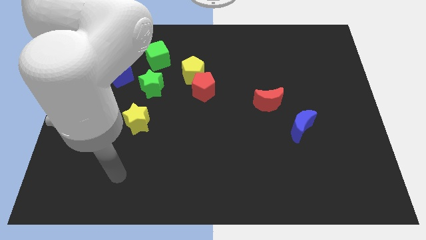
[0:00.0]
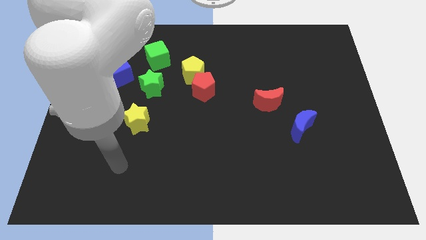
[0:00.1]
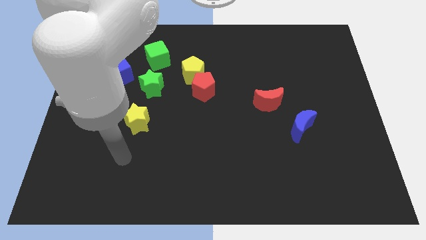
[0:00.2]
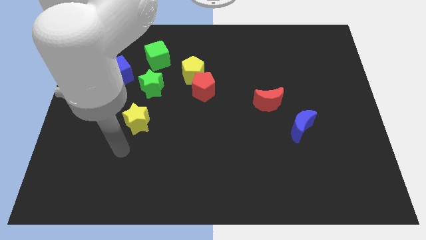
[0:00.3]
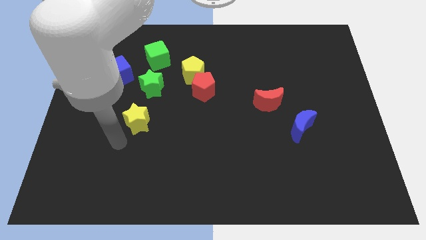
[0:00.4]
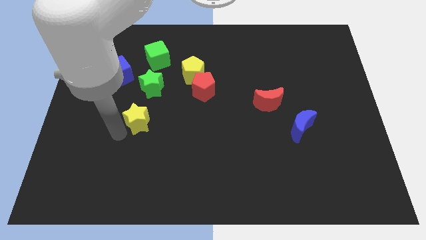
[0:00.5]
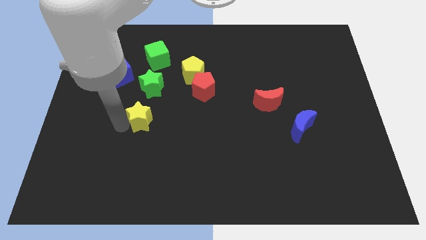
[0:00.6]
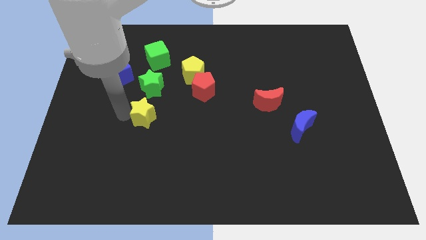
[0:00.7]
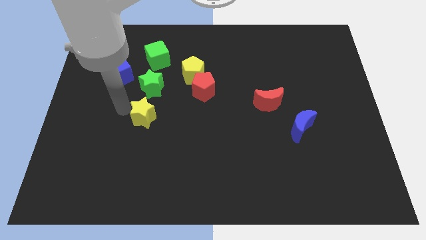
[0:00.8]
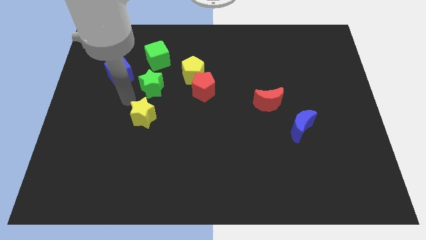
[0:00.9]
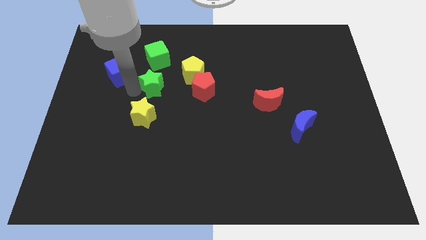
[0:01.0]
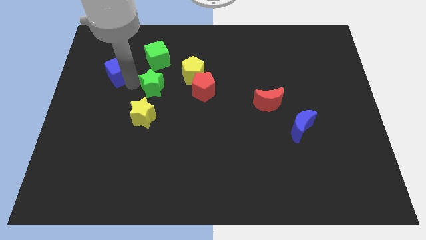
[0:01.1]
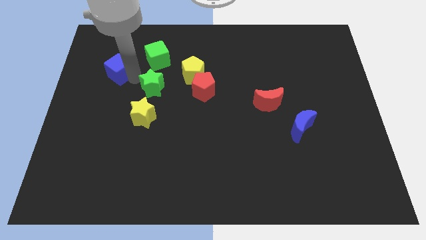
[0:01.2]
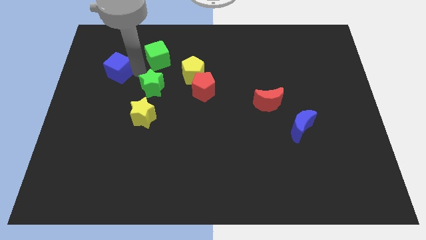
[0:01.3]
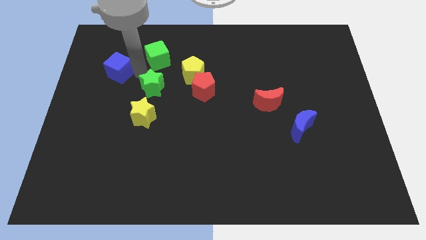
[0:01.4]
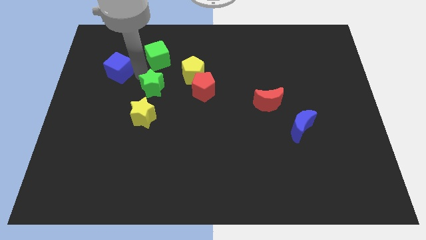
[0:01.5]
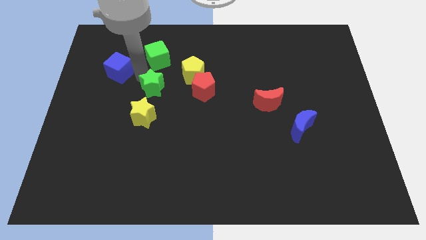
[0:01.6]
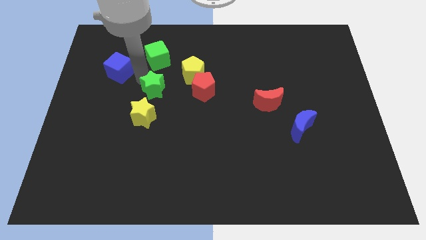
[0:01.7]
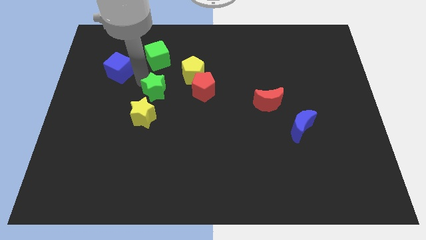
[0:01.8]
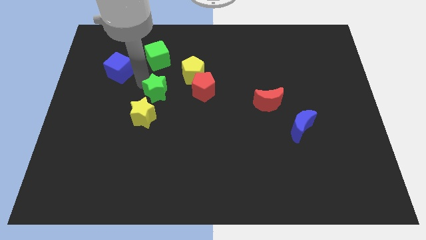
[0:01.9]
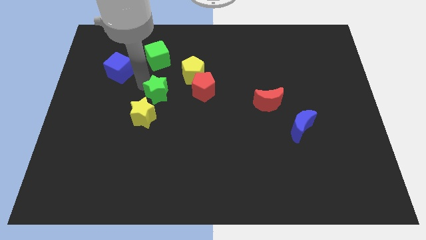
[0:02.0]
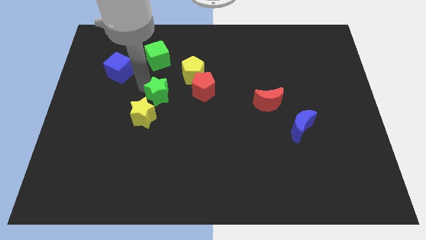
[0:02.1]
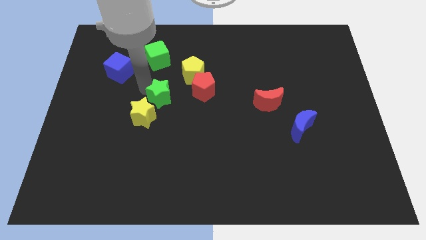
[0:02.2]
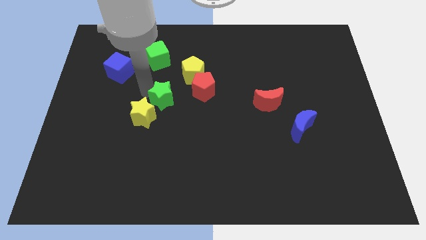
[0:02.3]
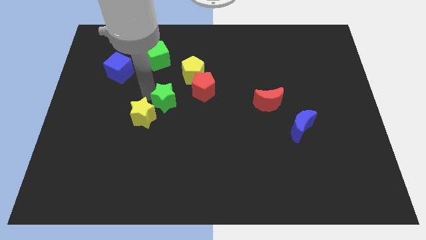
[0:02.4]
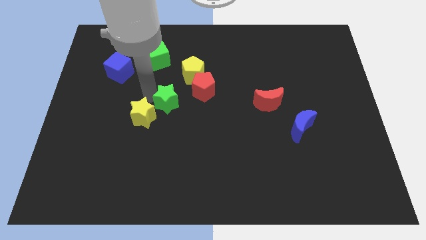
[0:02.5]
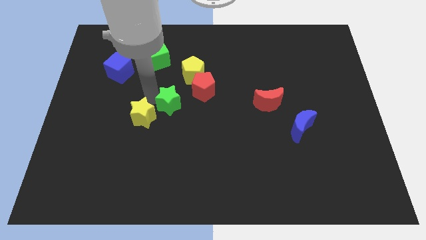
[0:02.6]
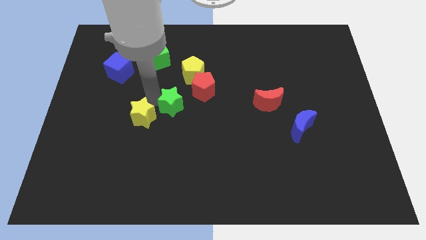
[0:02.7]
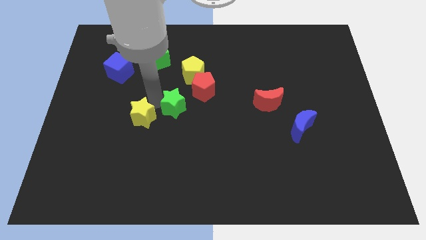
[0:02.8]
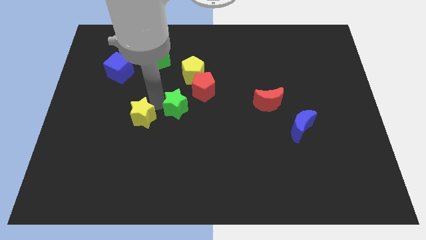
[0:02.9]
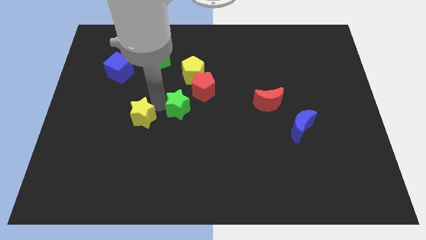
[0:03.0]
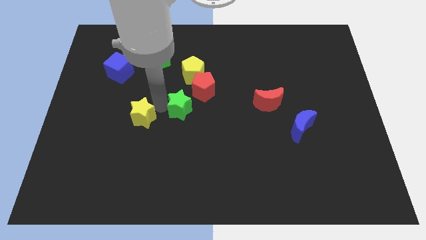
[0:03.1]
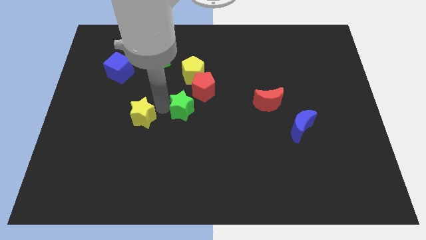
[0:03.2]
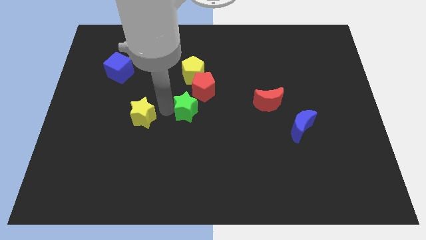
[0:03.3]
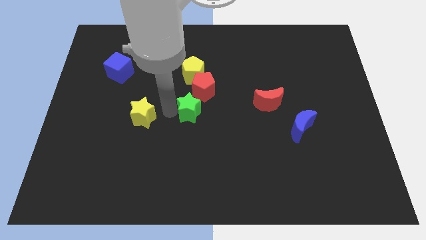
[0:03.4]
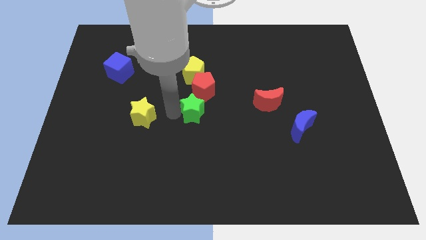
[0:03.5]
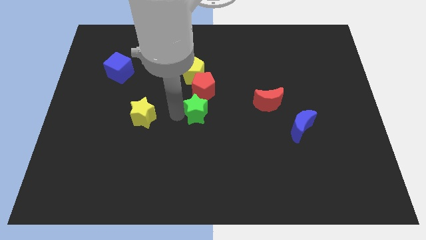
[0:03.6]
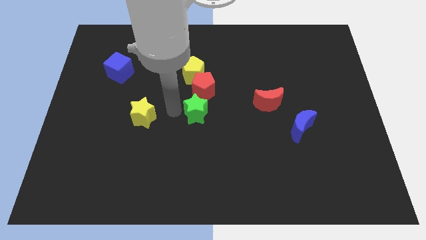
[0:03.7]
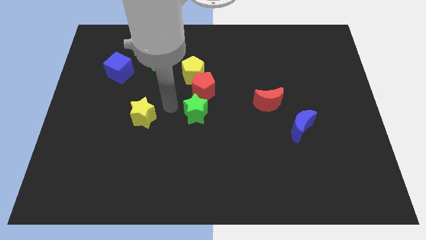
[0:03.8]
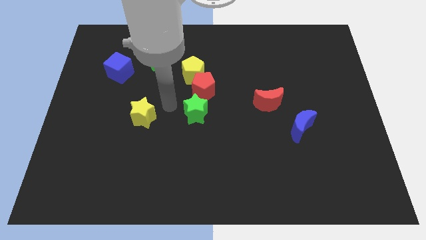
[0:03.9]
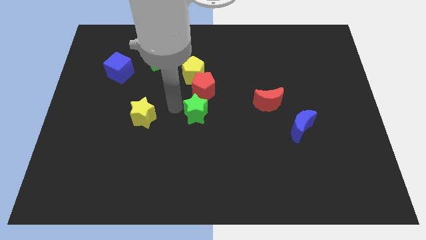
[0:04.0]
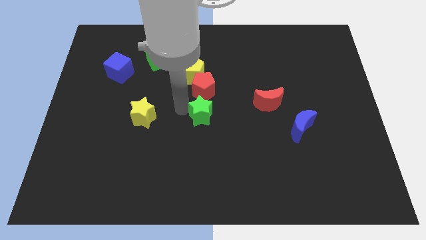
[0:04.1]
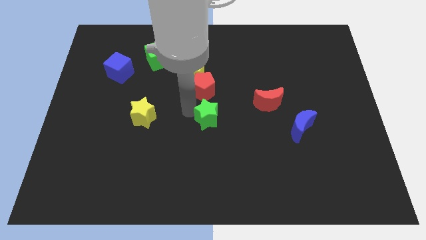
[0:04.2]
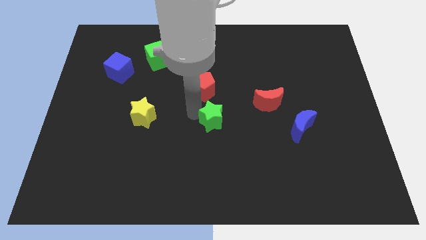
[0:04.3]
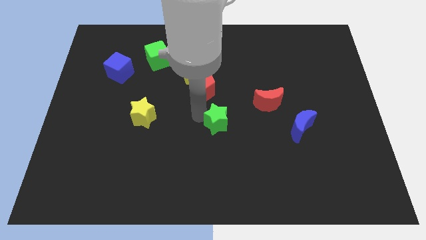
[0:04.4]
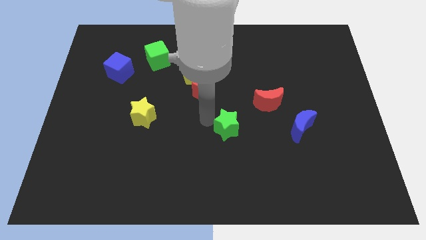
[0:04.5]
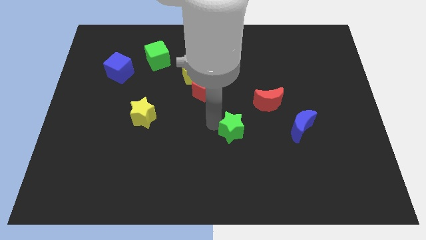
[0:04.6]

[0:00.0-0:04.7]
put the green star just left of the blue moon

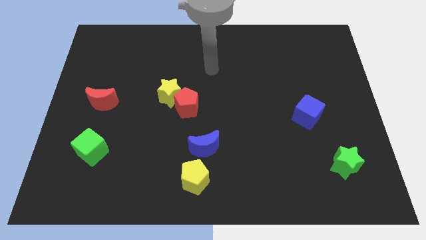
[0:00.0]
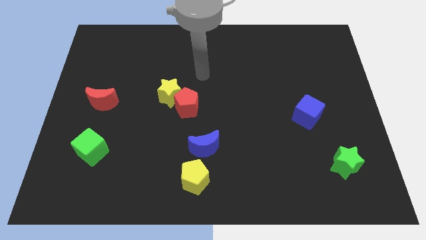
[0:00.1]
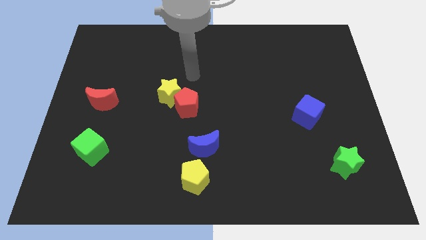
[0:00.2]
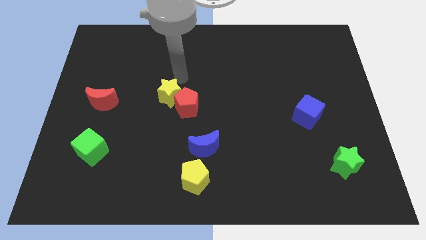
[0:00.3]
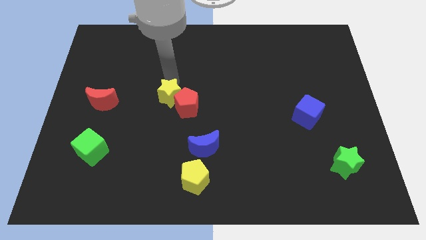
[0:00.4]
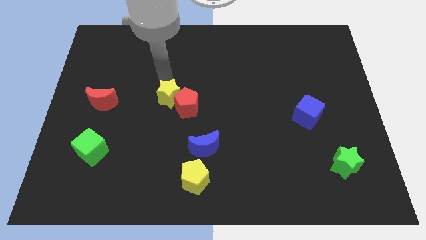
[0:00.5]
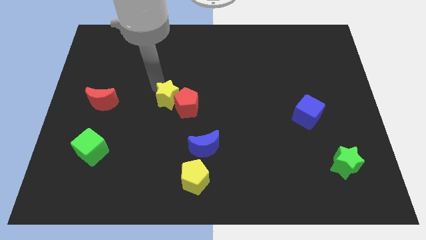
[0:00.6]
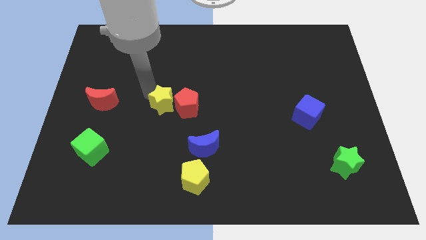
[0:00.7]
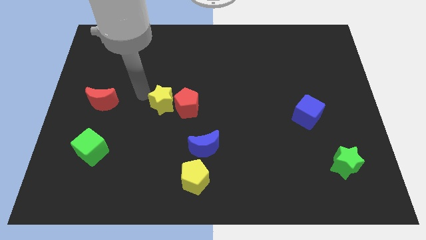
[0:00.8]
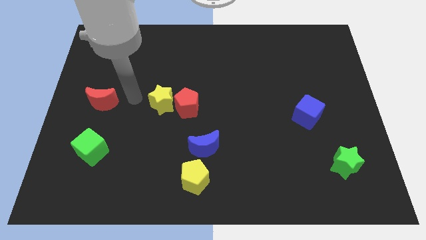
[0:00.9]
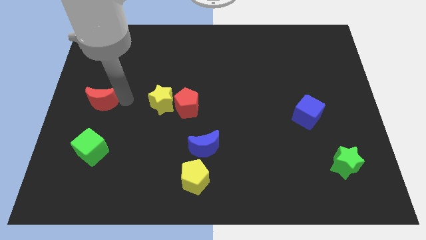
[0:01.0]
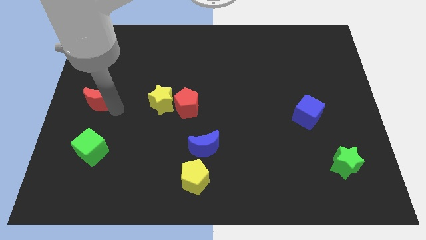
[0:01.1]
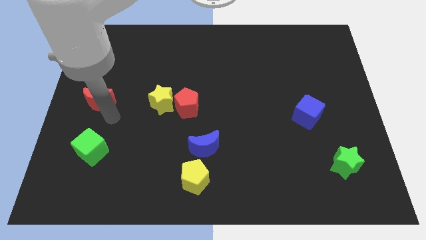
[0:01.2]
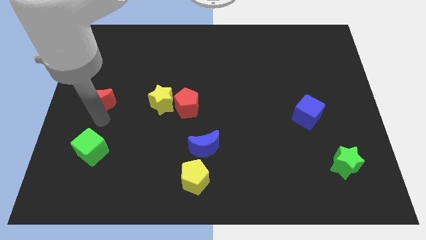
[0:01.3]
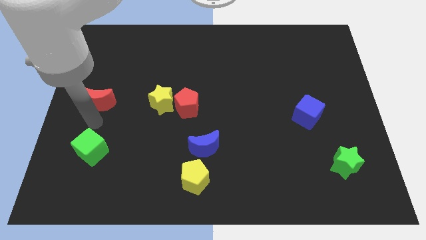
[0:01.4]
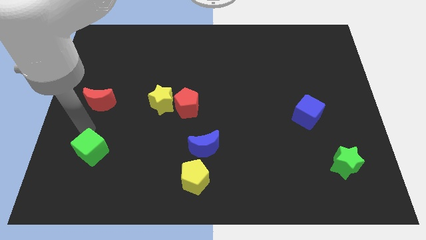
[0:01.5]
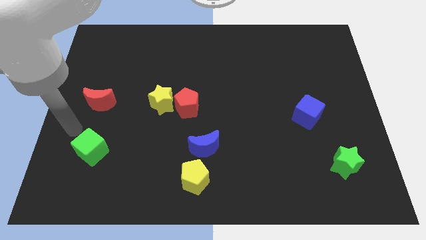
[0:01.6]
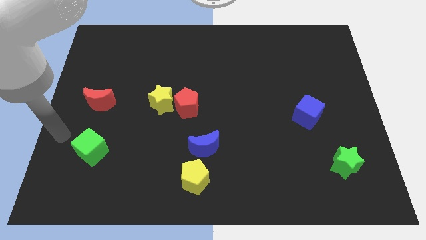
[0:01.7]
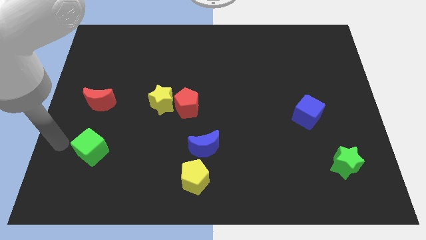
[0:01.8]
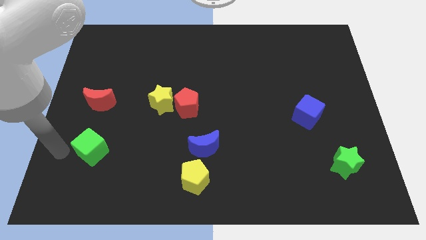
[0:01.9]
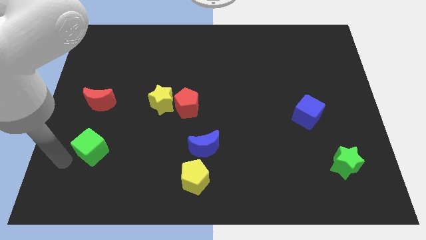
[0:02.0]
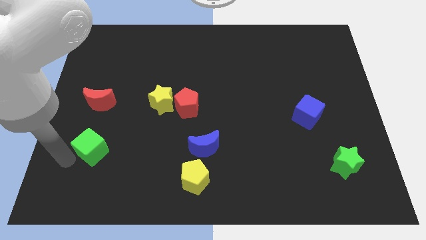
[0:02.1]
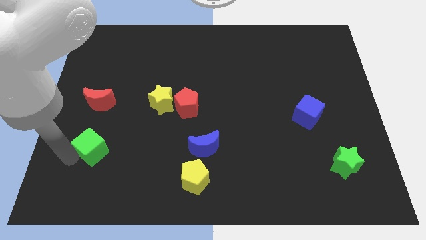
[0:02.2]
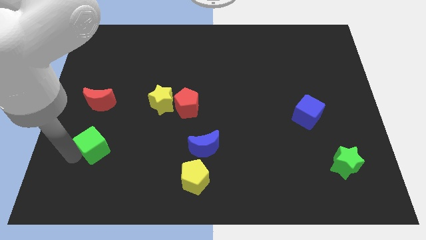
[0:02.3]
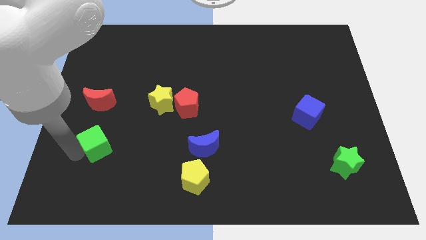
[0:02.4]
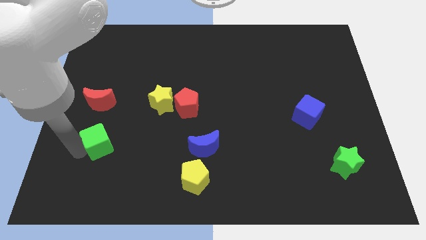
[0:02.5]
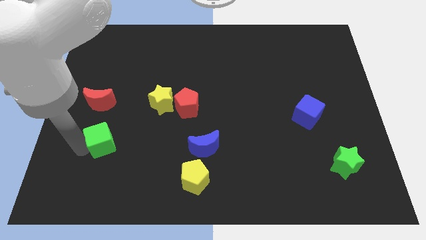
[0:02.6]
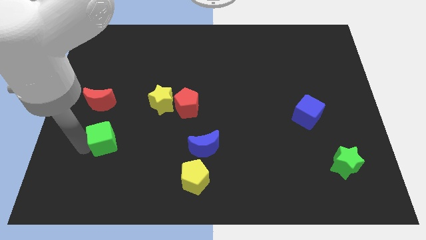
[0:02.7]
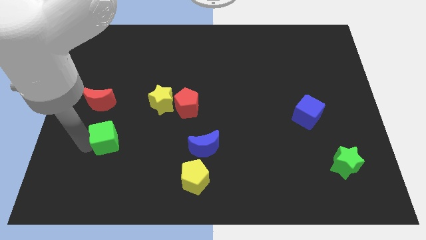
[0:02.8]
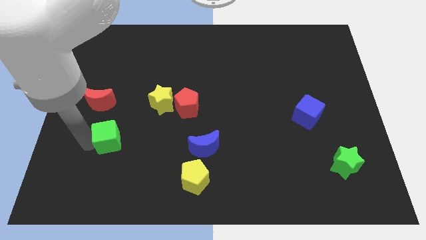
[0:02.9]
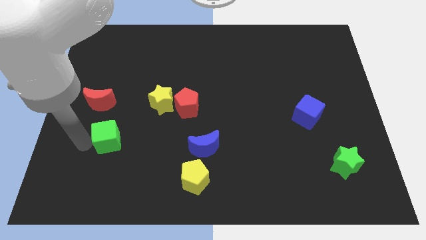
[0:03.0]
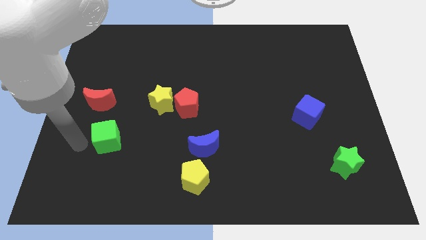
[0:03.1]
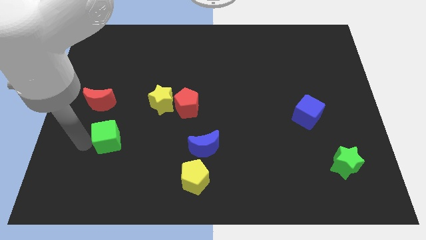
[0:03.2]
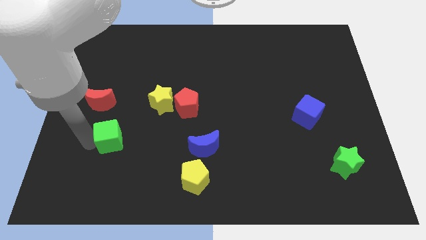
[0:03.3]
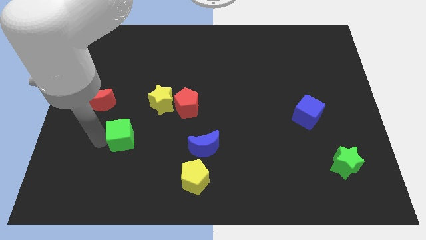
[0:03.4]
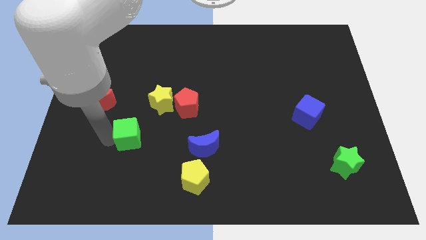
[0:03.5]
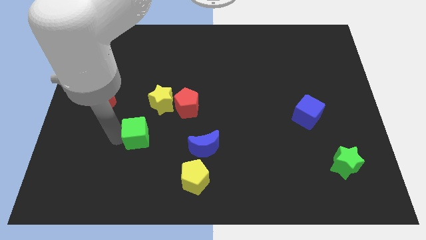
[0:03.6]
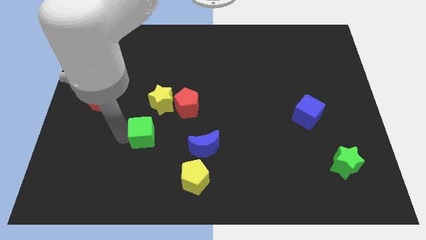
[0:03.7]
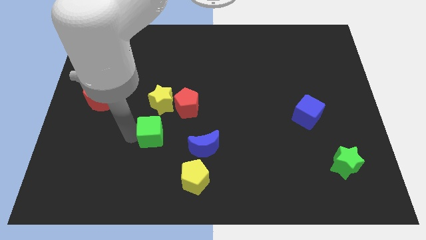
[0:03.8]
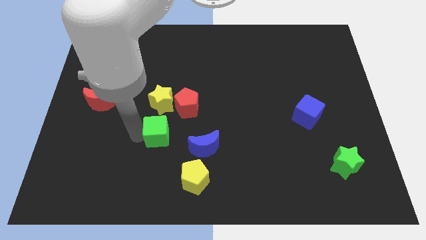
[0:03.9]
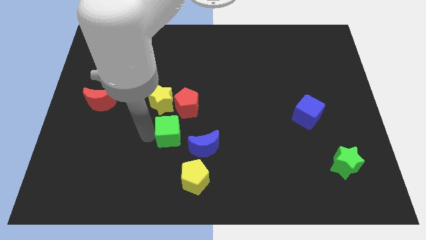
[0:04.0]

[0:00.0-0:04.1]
put the green cube to the bottom right of the yellow star
